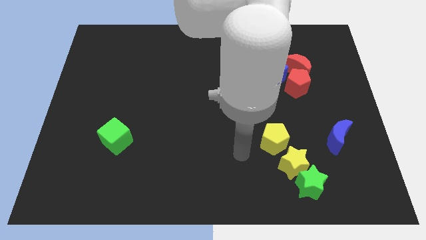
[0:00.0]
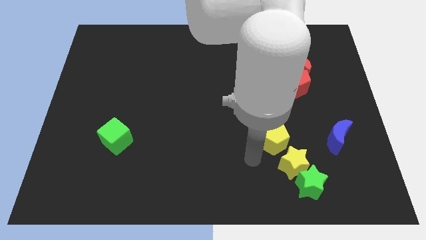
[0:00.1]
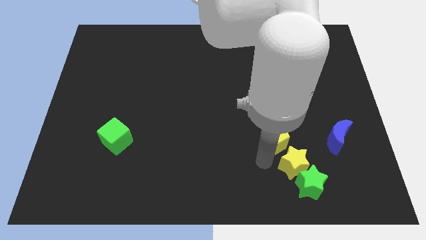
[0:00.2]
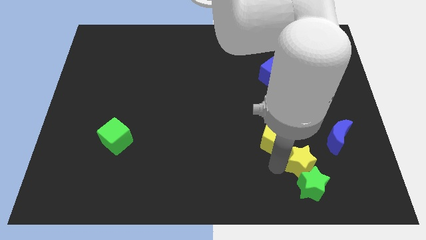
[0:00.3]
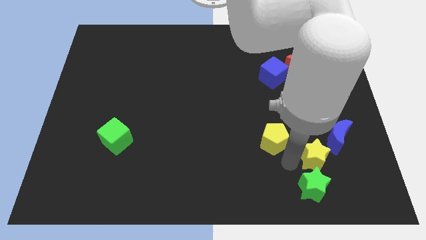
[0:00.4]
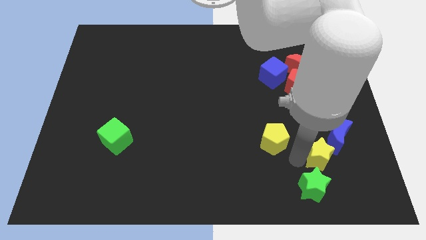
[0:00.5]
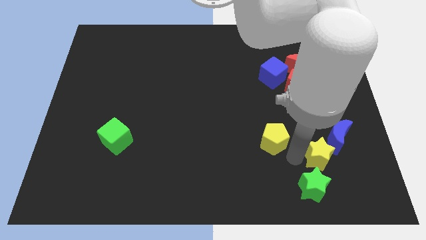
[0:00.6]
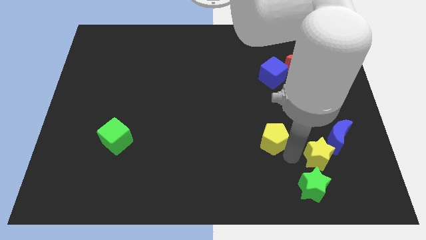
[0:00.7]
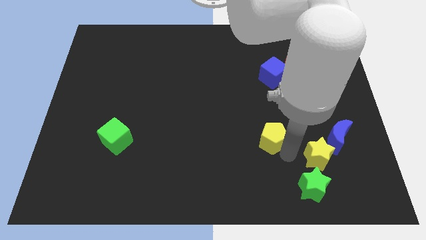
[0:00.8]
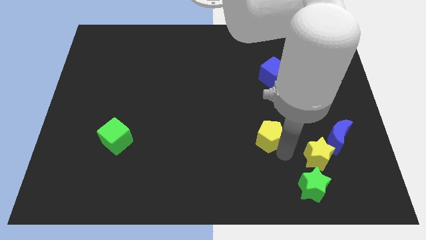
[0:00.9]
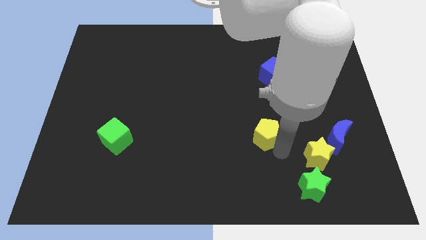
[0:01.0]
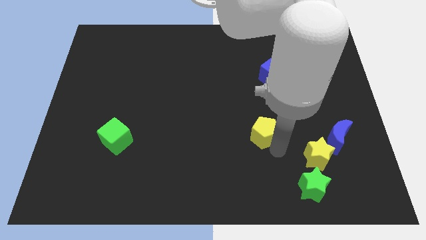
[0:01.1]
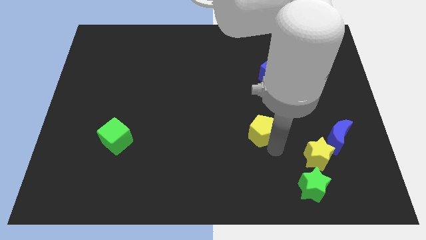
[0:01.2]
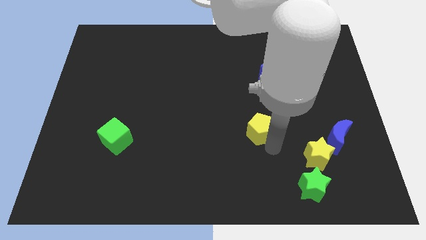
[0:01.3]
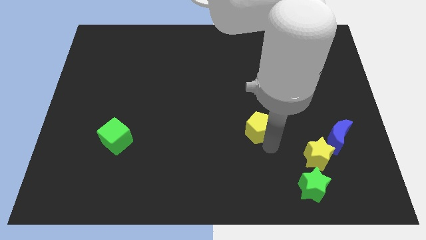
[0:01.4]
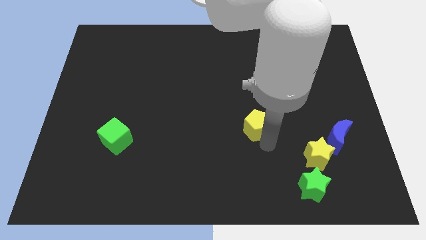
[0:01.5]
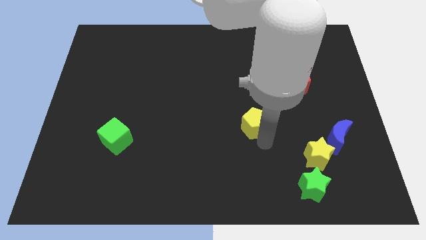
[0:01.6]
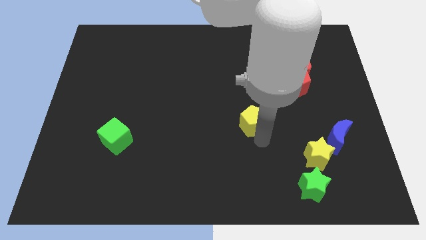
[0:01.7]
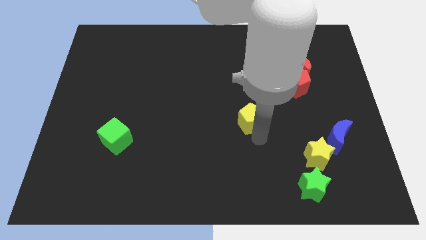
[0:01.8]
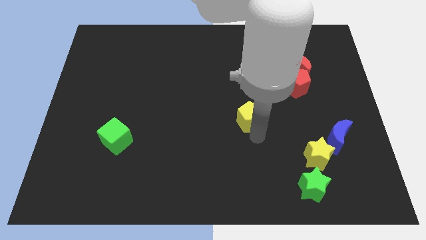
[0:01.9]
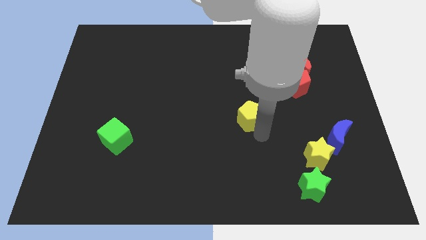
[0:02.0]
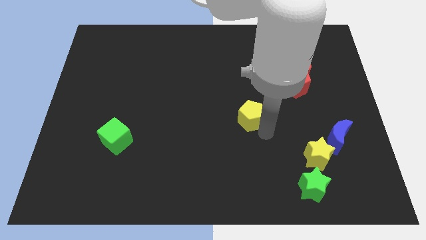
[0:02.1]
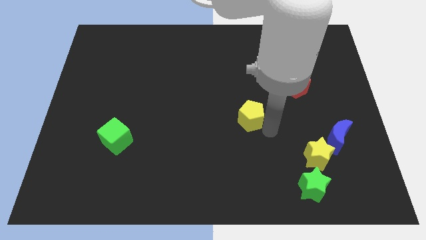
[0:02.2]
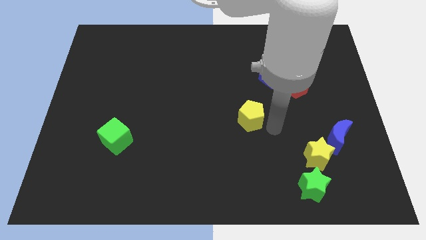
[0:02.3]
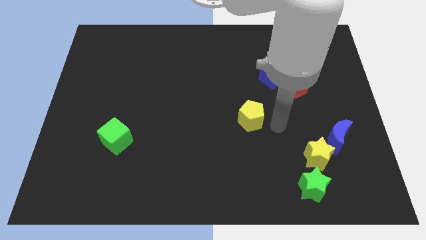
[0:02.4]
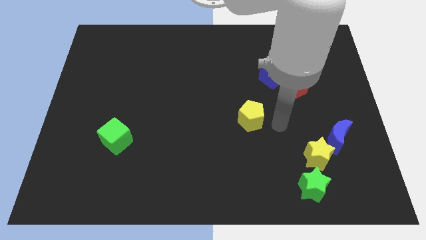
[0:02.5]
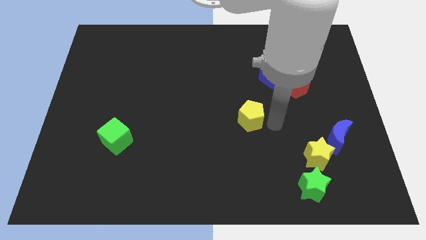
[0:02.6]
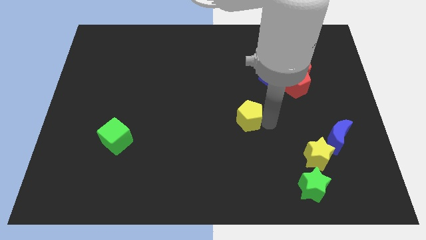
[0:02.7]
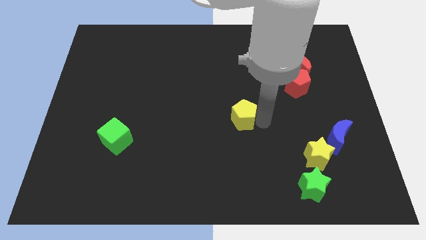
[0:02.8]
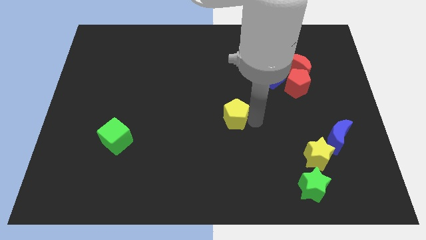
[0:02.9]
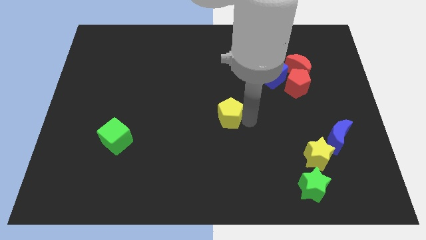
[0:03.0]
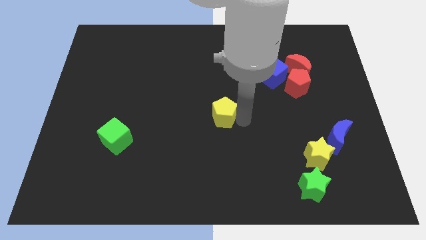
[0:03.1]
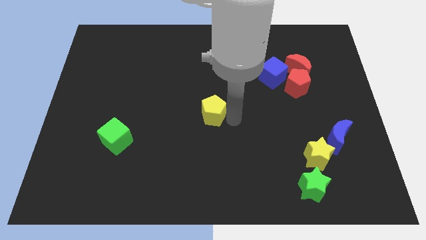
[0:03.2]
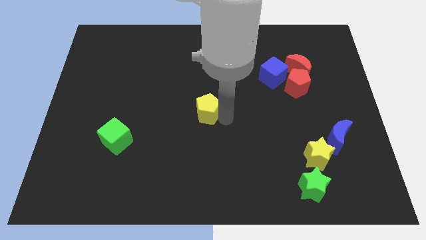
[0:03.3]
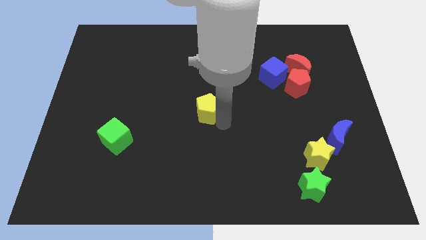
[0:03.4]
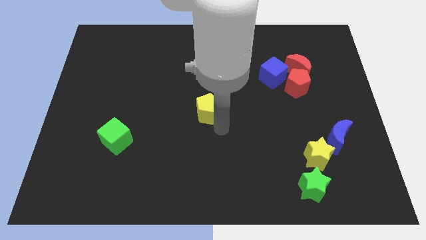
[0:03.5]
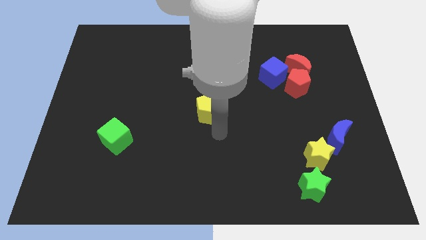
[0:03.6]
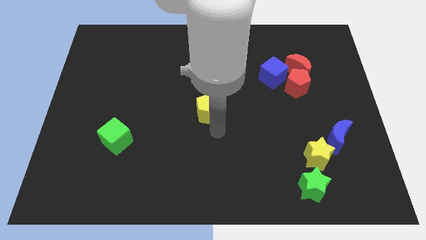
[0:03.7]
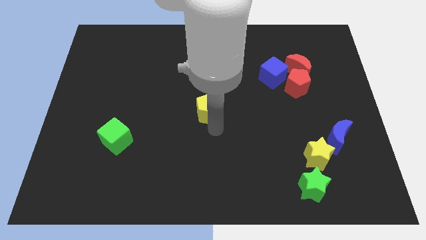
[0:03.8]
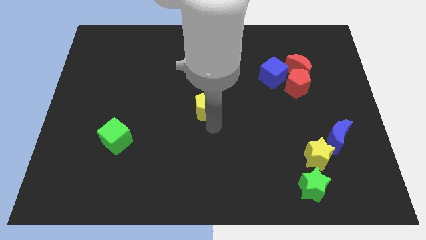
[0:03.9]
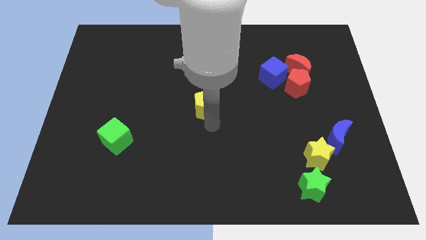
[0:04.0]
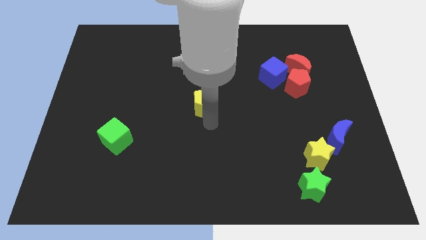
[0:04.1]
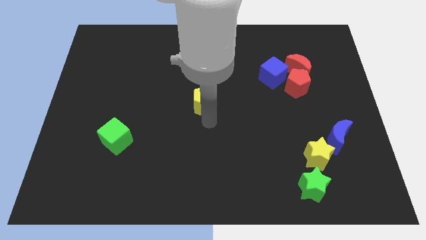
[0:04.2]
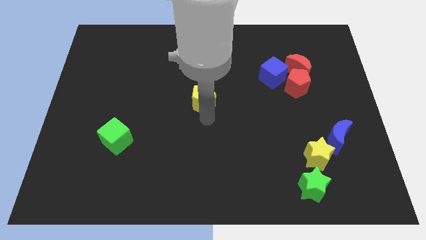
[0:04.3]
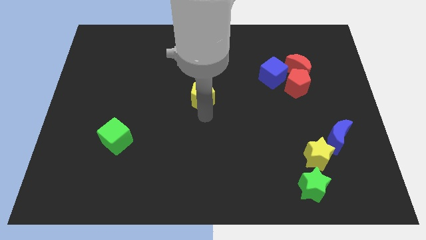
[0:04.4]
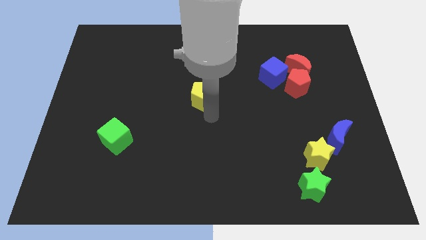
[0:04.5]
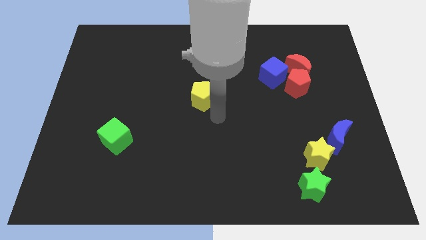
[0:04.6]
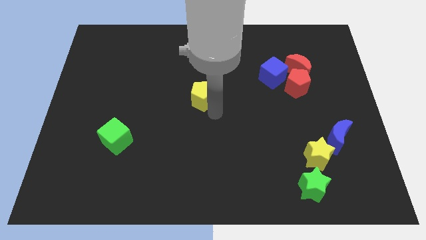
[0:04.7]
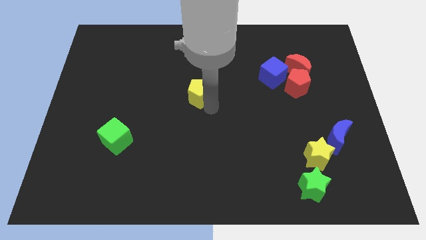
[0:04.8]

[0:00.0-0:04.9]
move the yellow pentagon diagonally up and to the left

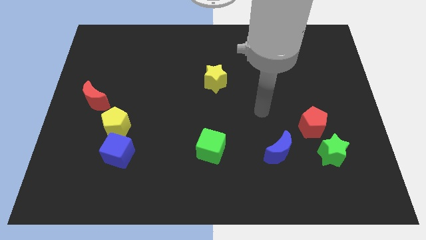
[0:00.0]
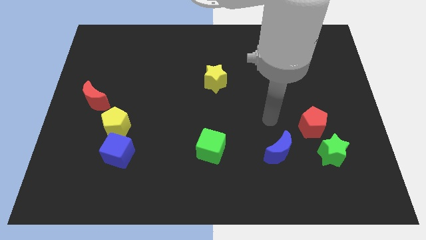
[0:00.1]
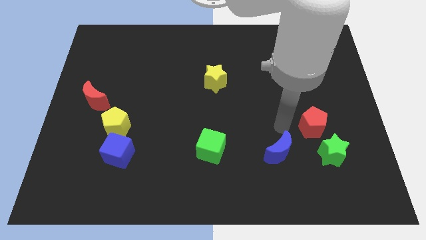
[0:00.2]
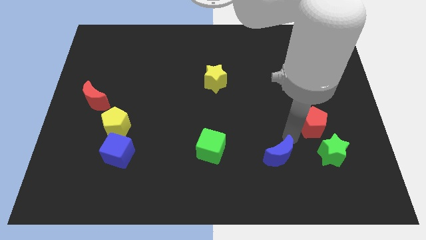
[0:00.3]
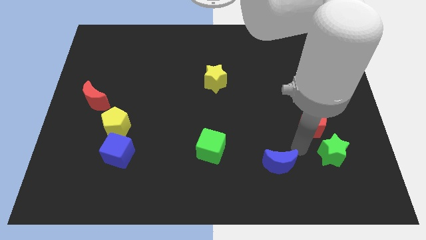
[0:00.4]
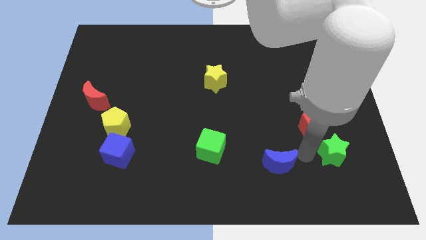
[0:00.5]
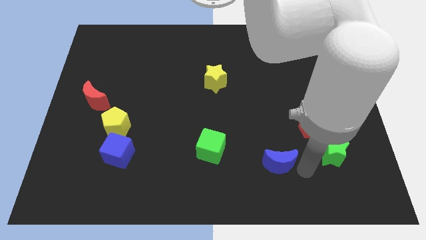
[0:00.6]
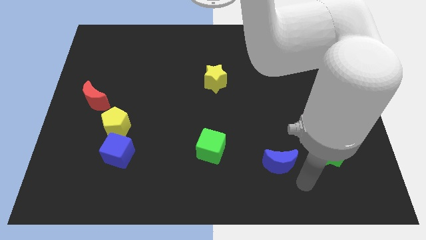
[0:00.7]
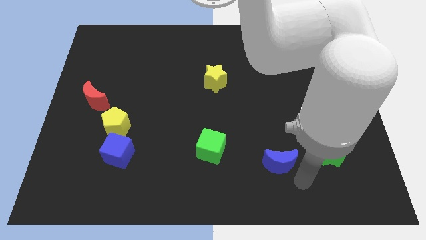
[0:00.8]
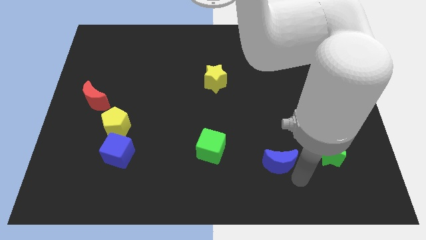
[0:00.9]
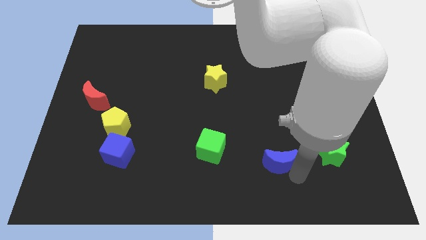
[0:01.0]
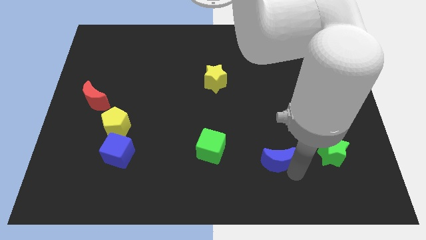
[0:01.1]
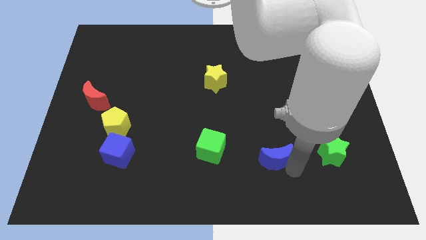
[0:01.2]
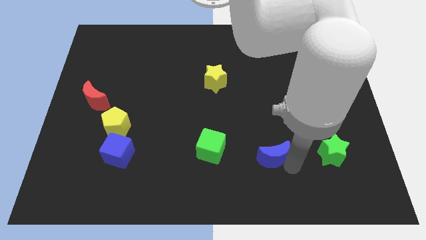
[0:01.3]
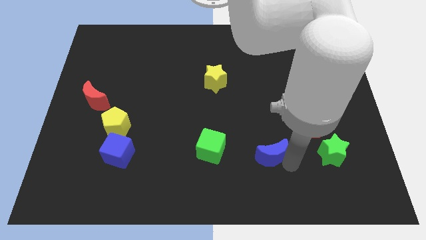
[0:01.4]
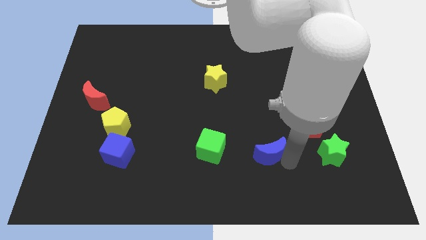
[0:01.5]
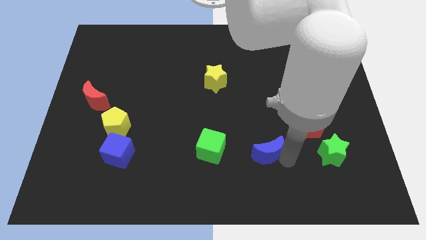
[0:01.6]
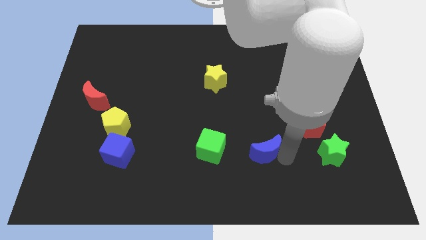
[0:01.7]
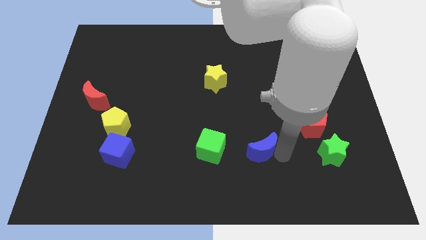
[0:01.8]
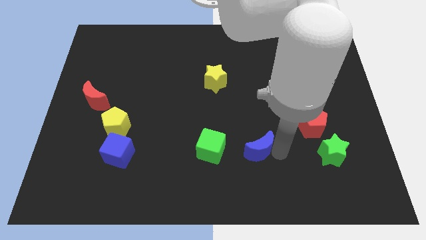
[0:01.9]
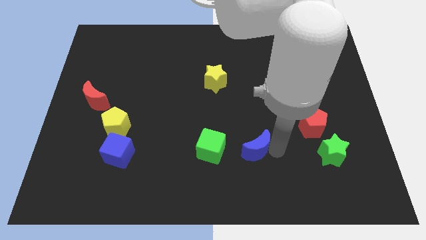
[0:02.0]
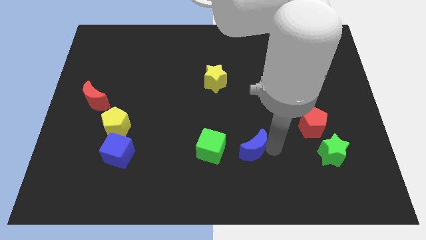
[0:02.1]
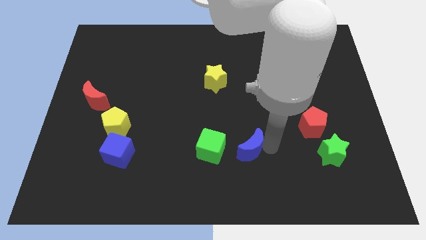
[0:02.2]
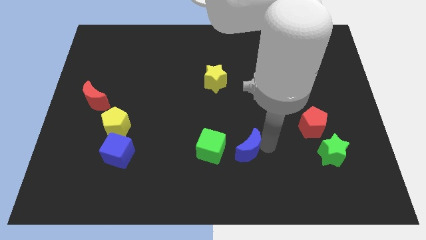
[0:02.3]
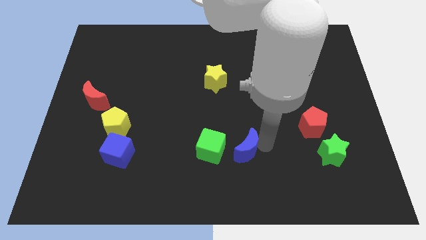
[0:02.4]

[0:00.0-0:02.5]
move the blue moon left a bit

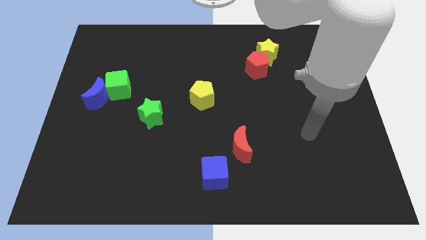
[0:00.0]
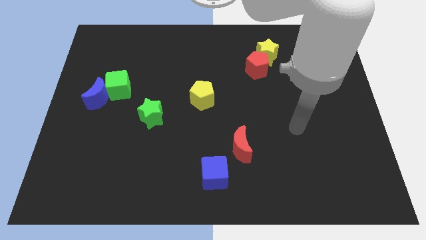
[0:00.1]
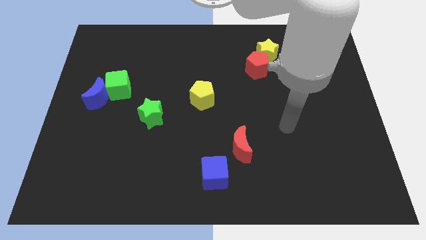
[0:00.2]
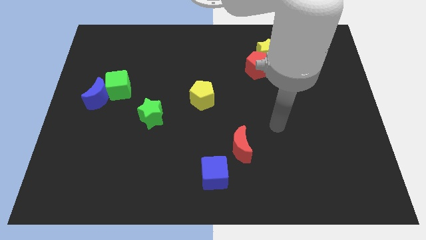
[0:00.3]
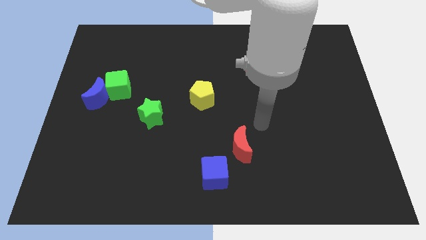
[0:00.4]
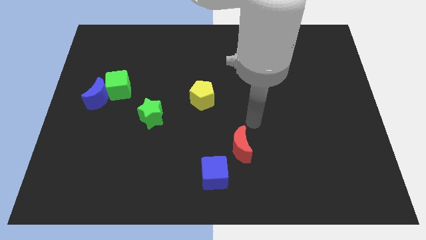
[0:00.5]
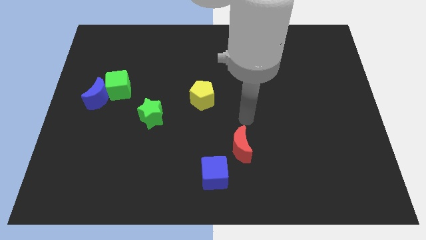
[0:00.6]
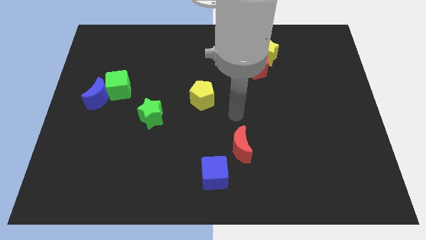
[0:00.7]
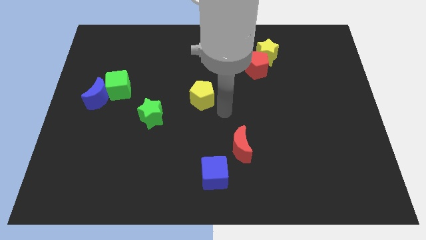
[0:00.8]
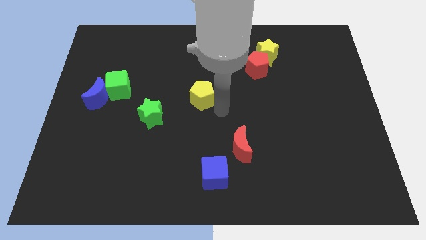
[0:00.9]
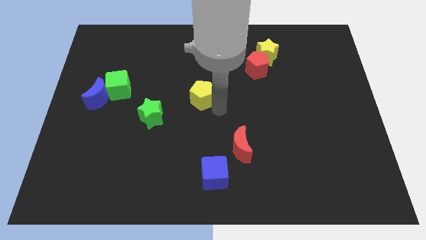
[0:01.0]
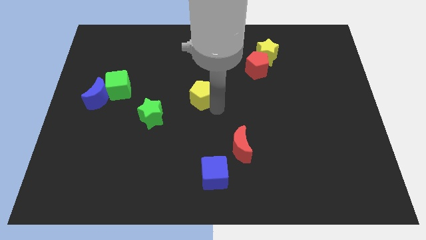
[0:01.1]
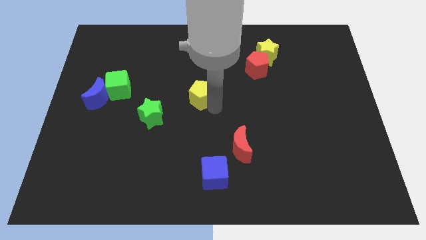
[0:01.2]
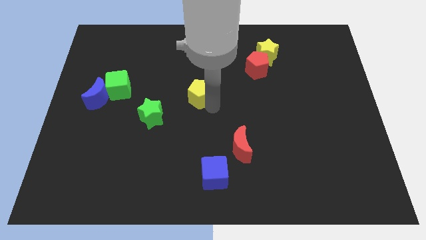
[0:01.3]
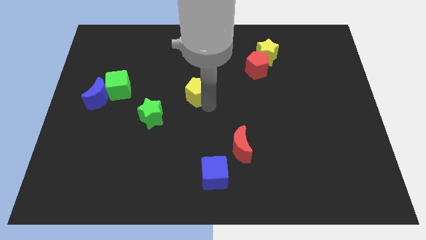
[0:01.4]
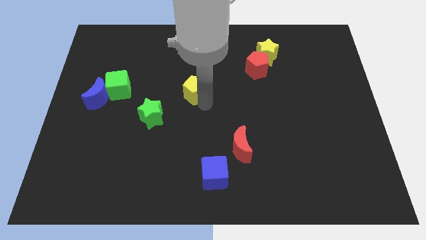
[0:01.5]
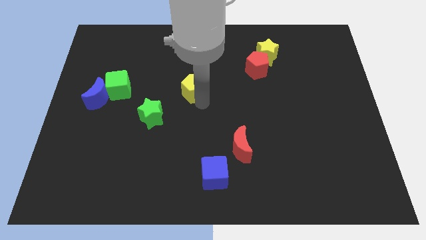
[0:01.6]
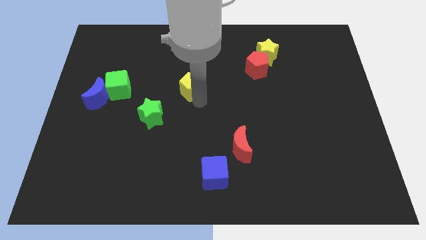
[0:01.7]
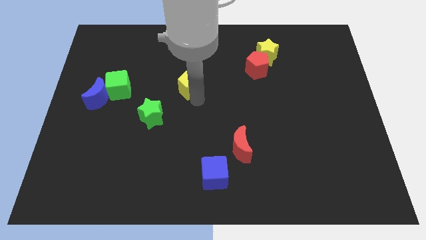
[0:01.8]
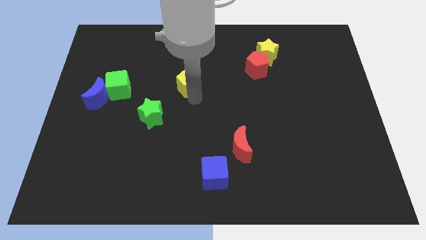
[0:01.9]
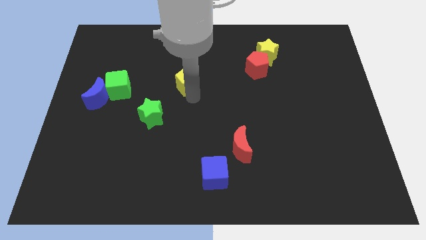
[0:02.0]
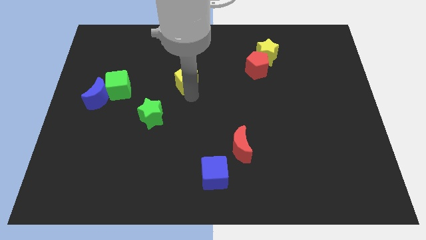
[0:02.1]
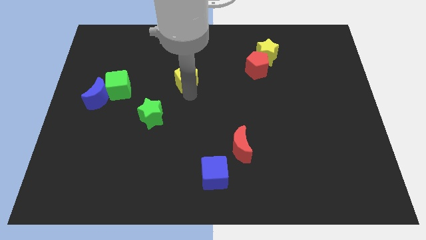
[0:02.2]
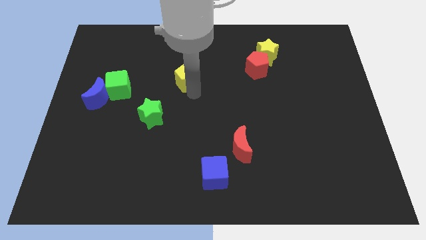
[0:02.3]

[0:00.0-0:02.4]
slightly slide the yellow pentagon up and then left
